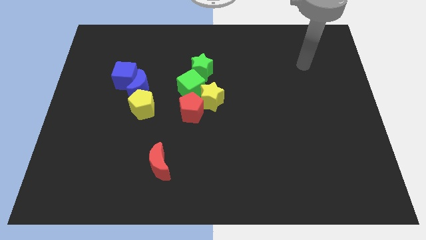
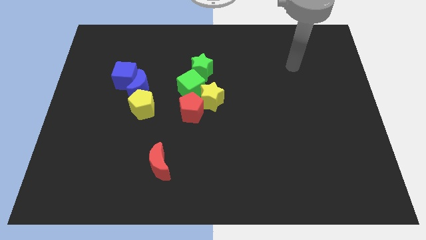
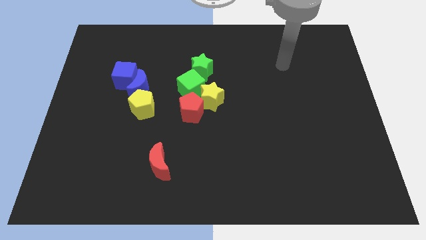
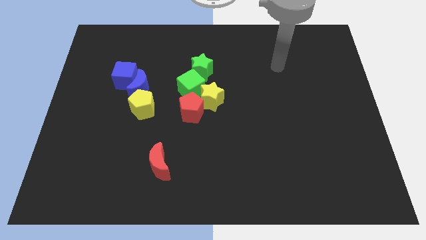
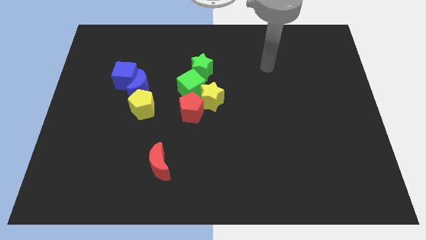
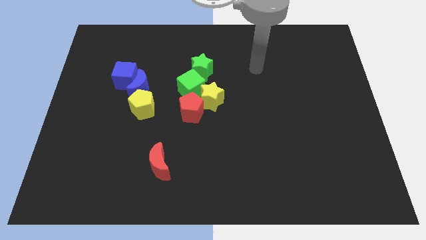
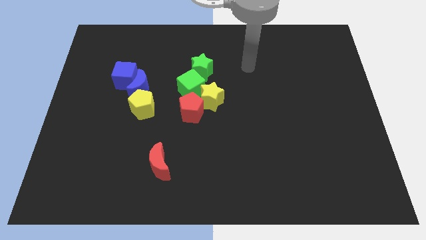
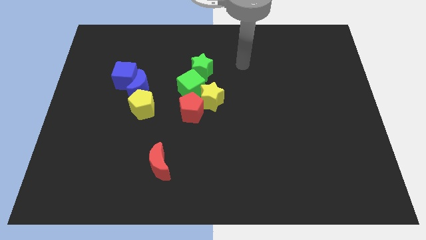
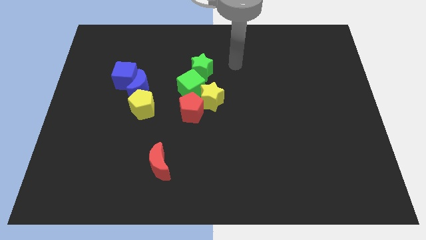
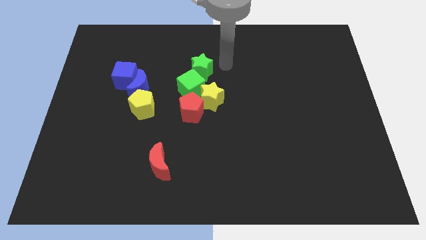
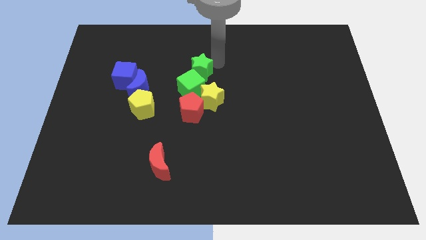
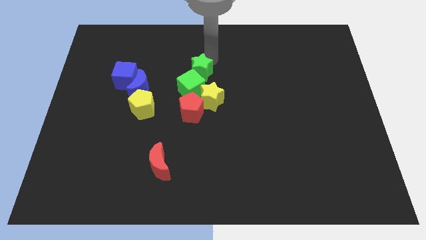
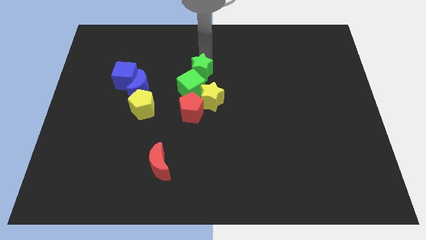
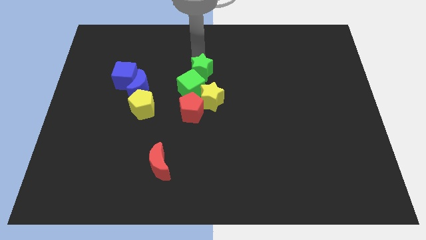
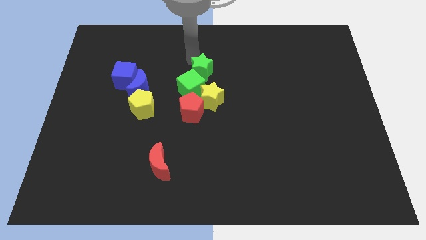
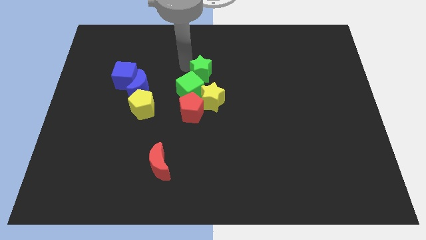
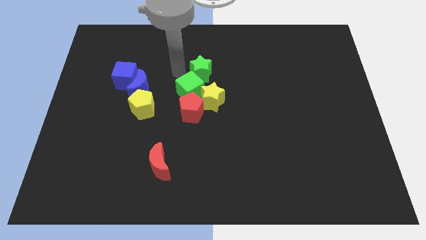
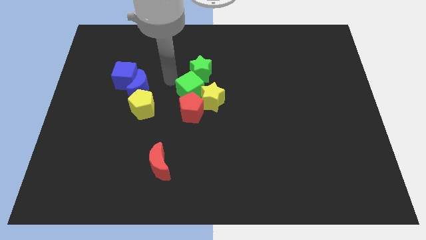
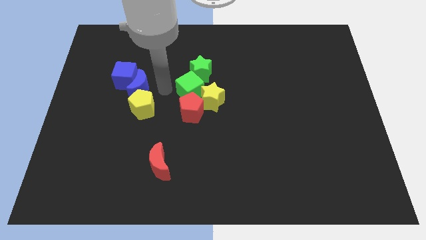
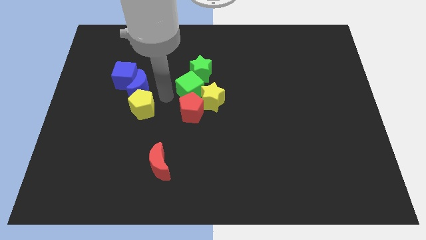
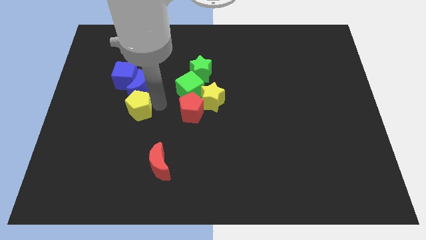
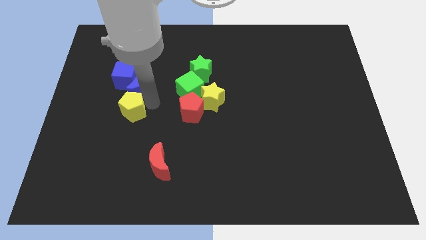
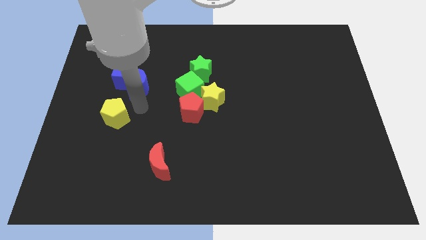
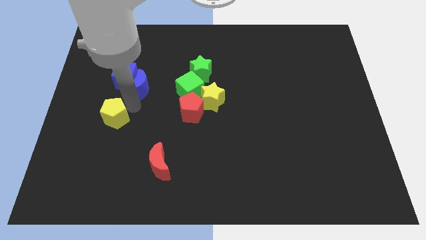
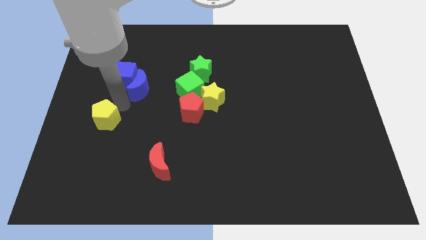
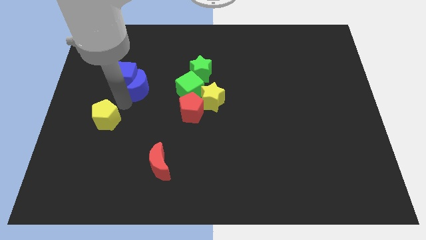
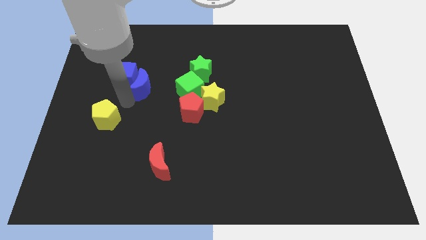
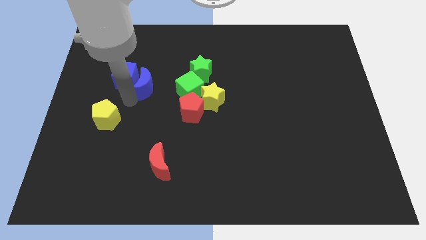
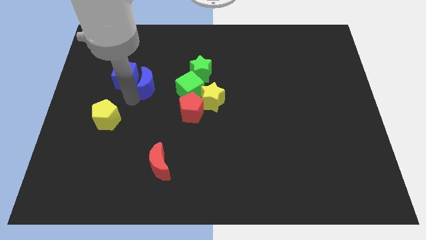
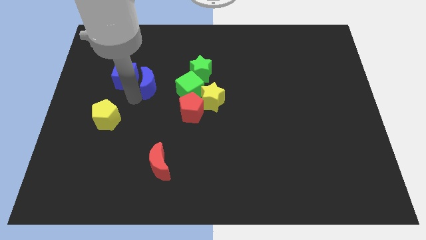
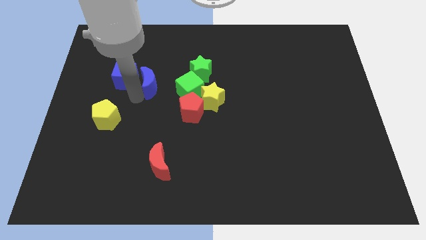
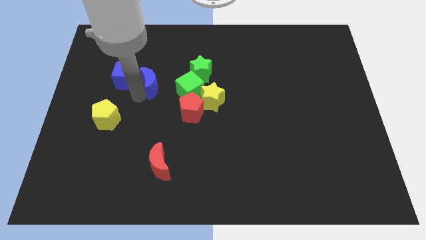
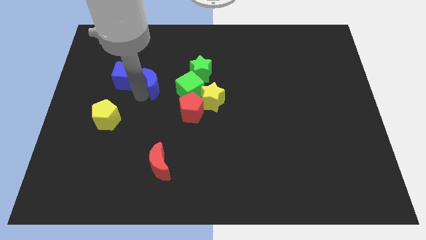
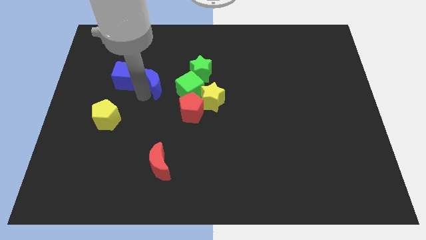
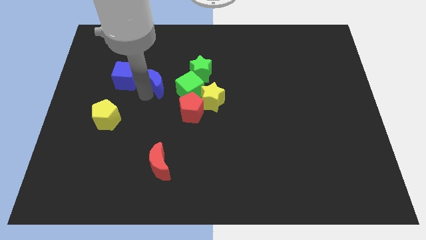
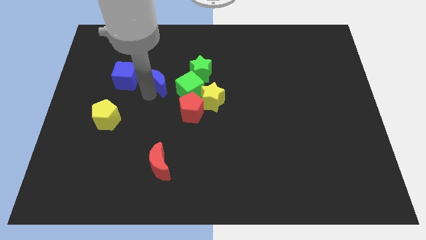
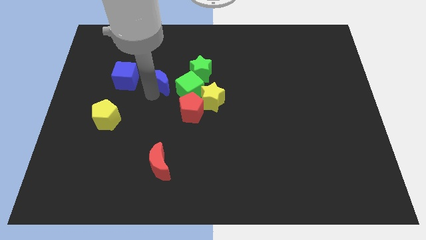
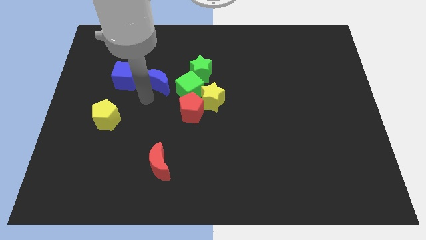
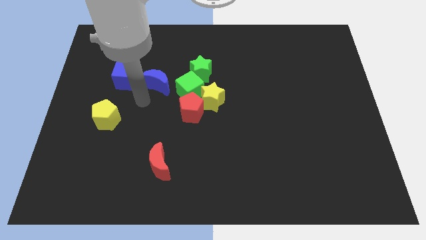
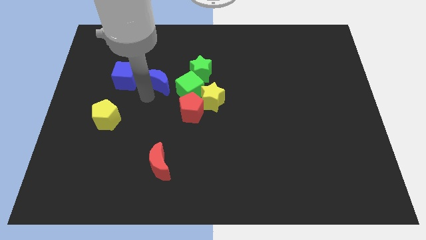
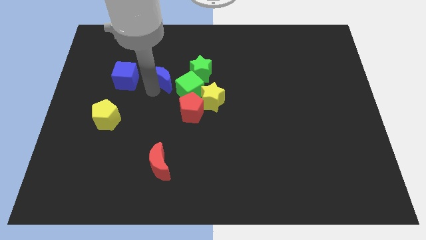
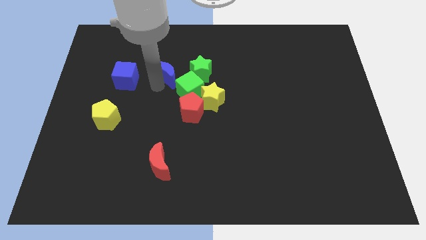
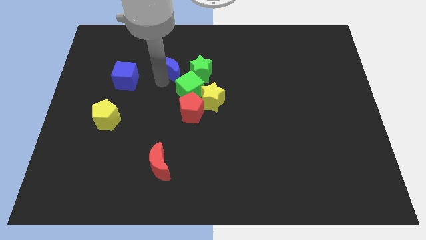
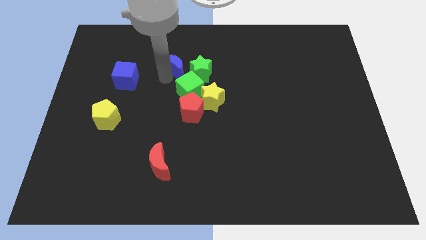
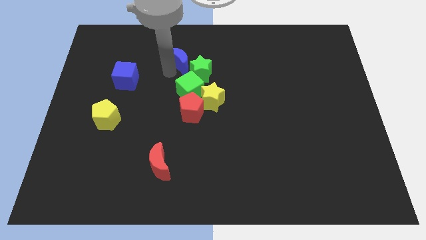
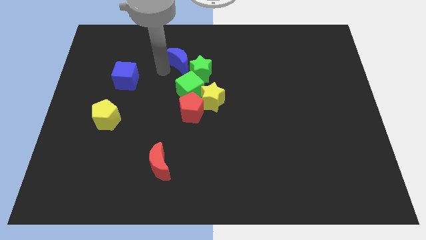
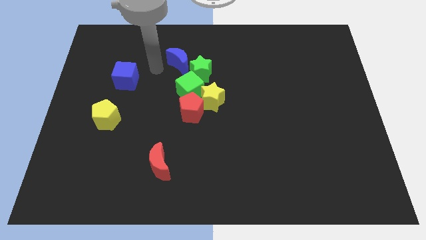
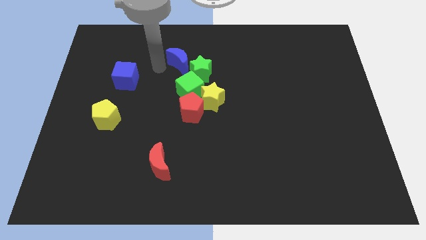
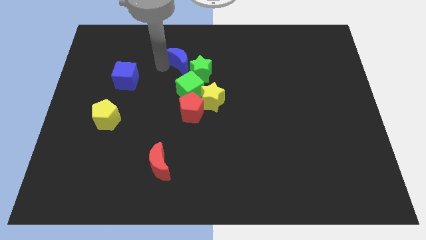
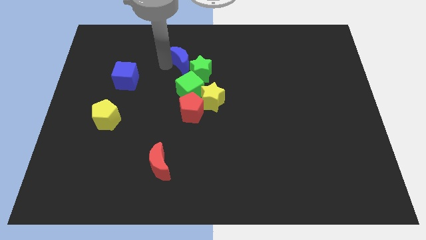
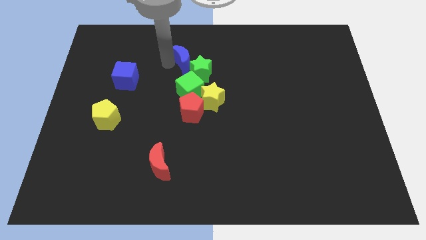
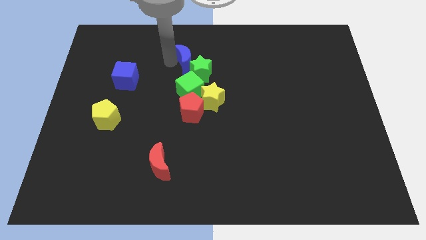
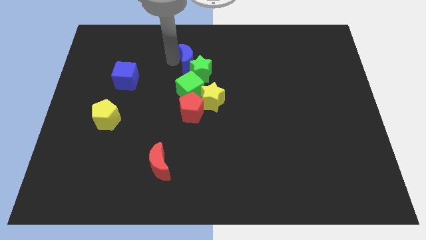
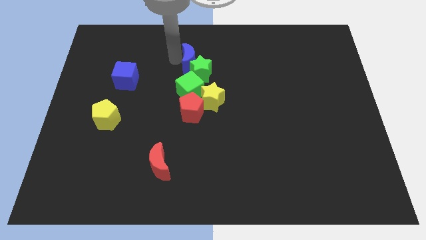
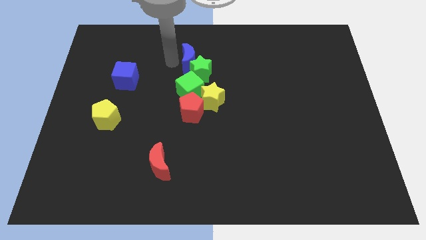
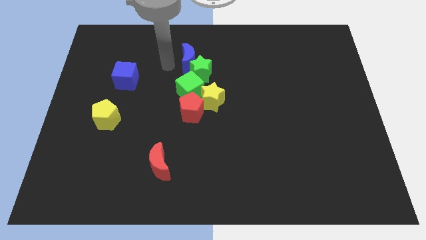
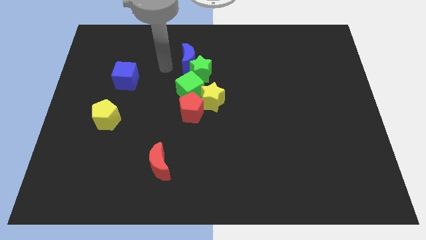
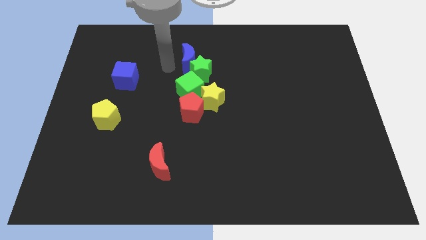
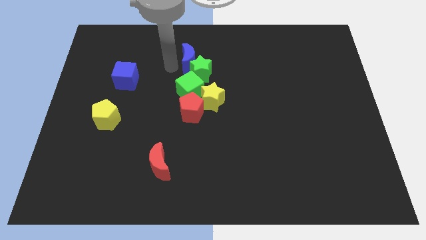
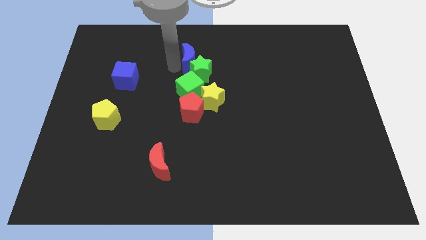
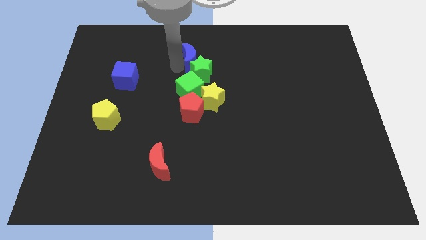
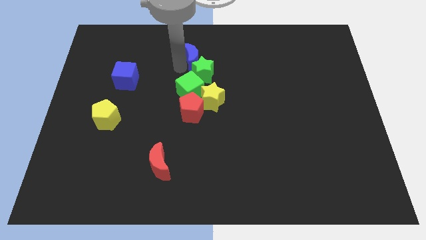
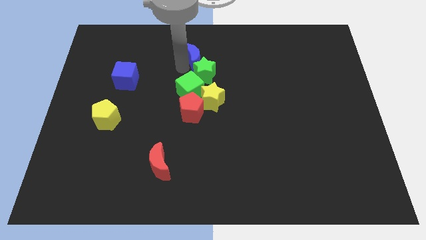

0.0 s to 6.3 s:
push the blue moon above the yellow star

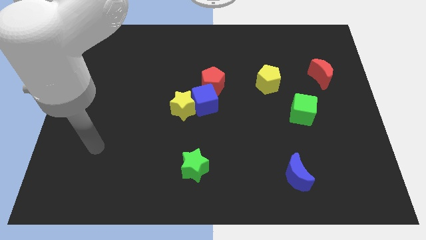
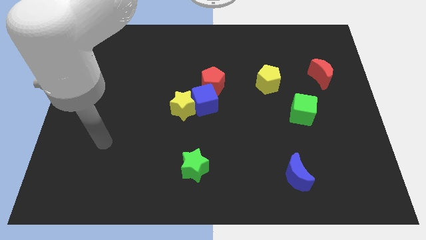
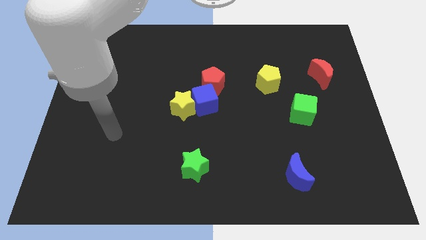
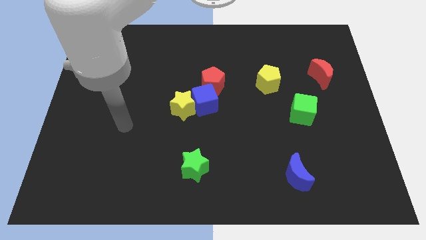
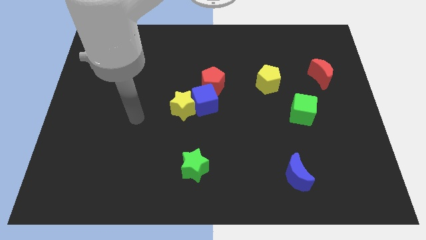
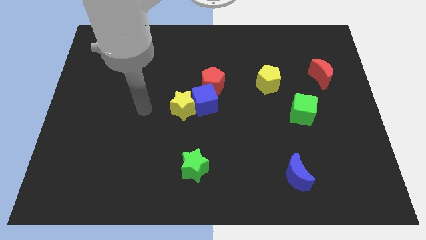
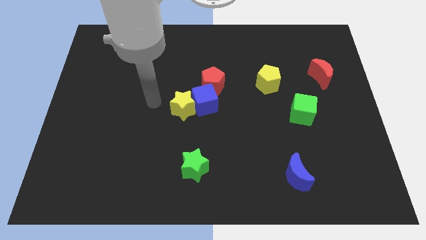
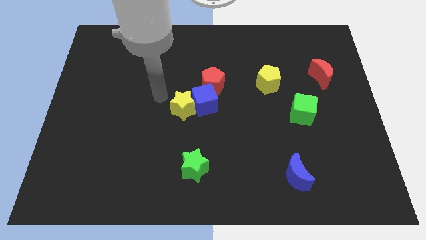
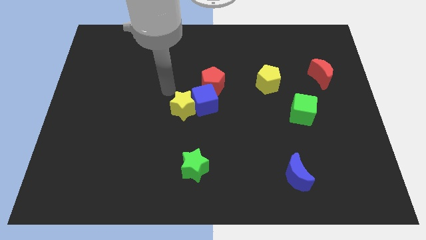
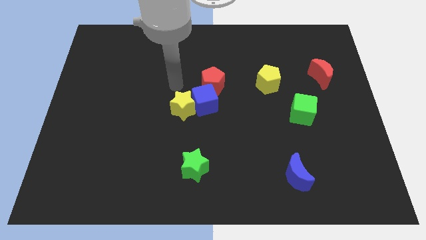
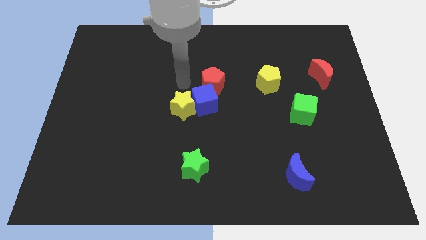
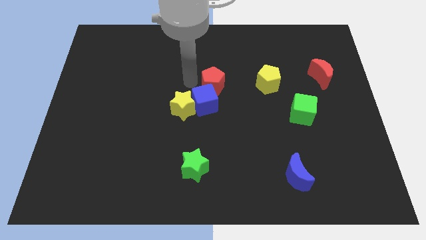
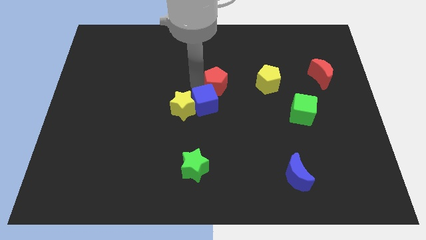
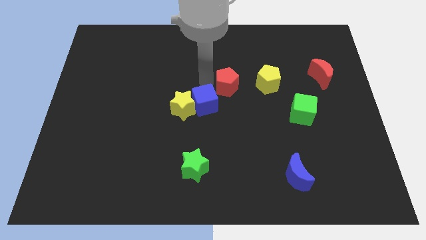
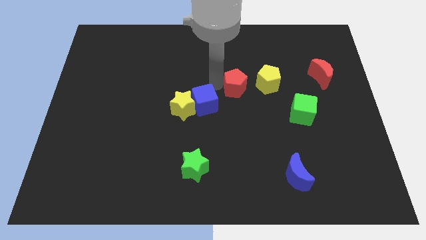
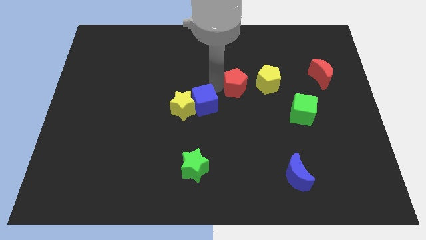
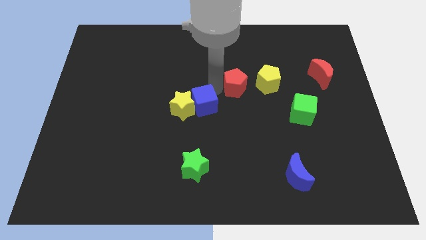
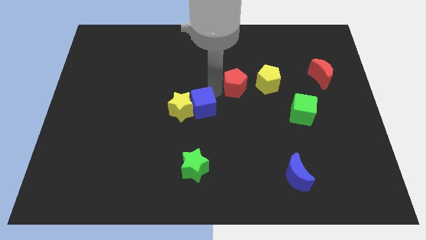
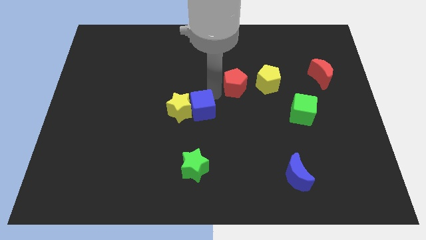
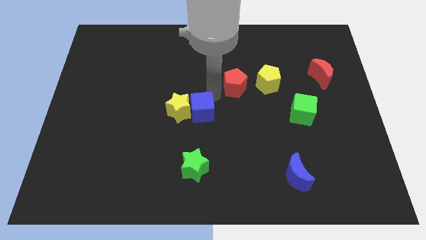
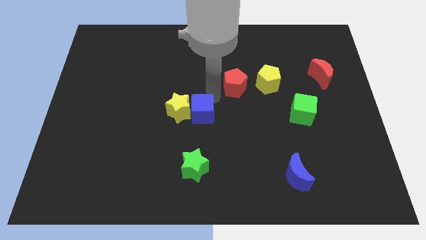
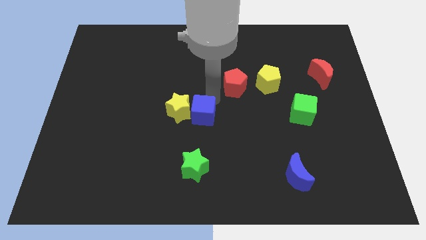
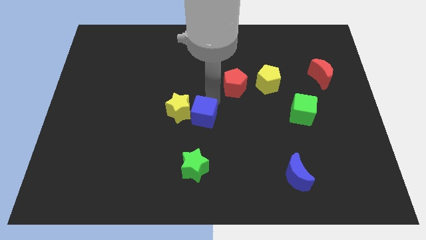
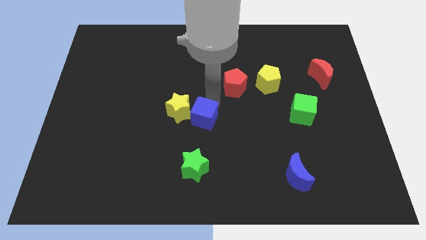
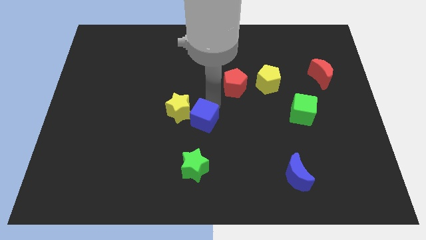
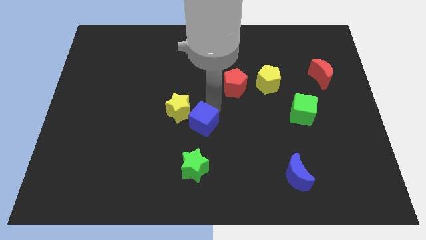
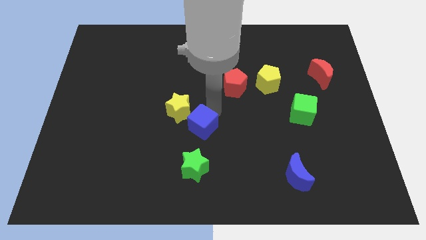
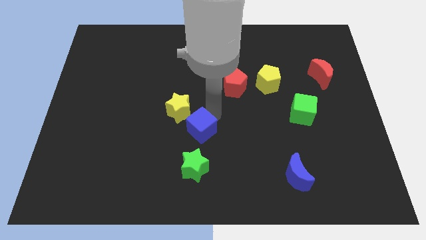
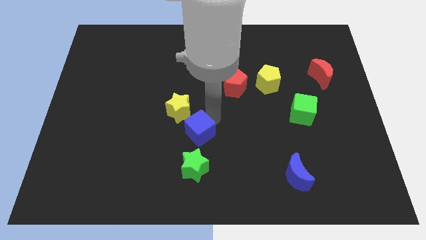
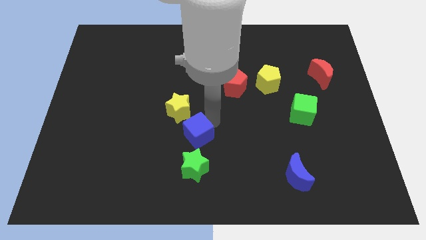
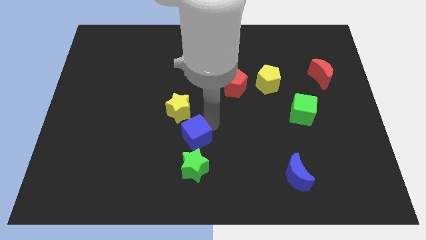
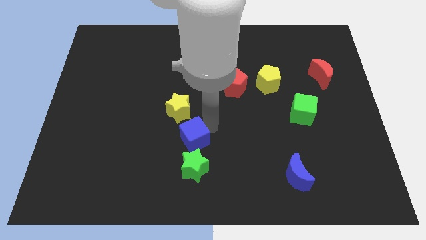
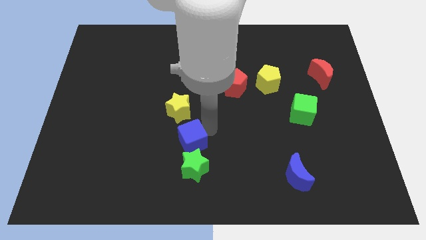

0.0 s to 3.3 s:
push the blue cube to the top left side of the green star
